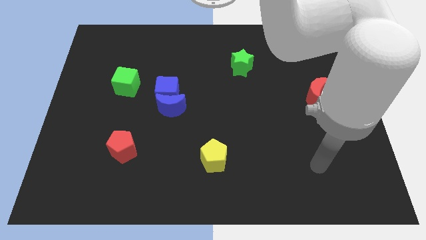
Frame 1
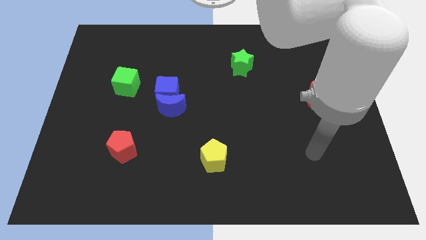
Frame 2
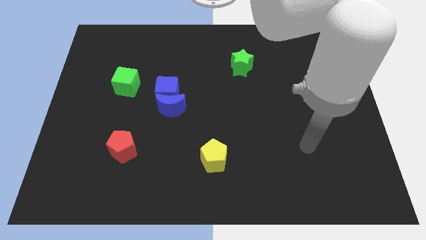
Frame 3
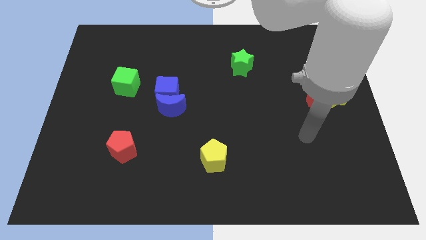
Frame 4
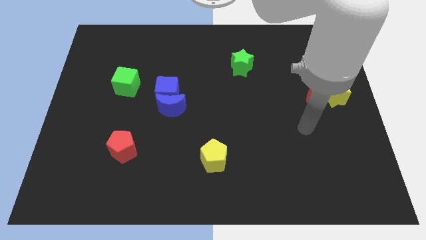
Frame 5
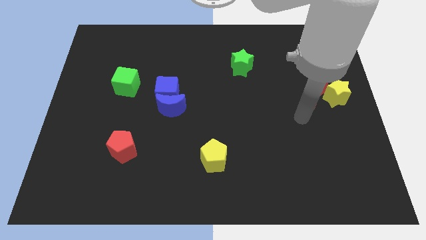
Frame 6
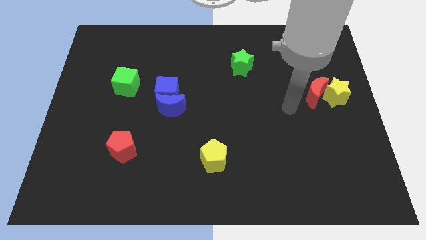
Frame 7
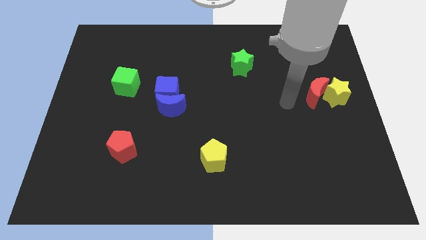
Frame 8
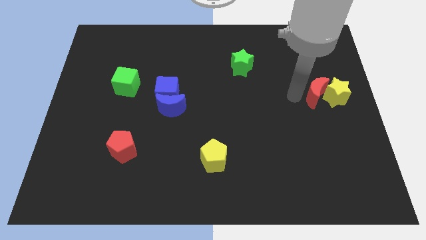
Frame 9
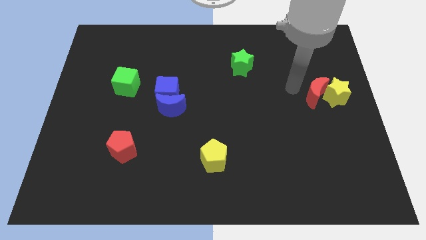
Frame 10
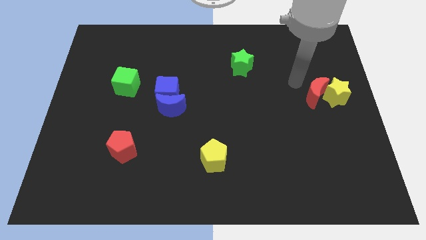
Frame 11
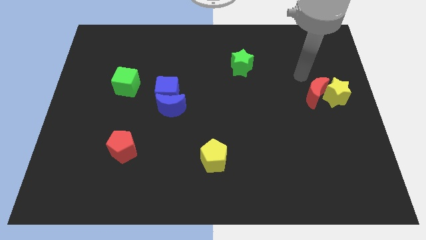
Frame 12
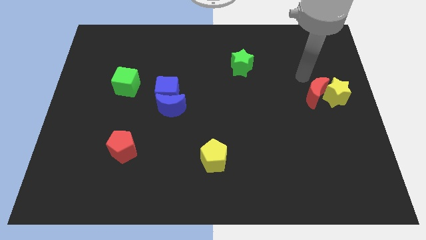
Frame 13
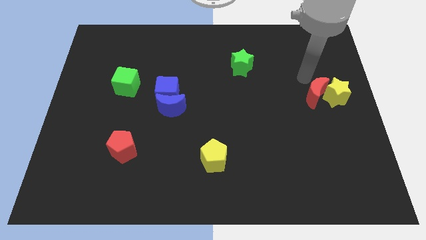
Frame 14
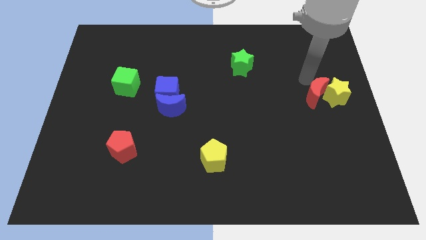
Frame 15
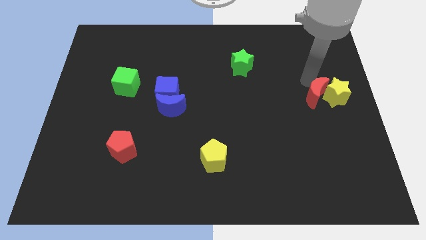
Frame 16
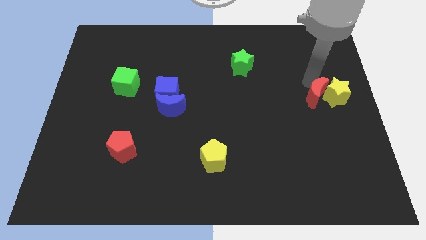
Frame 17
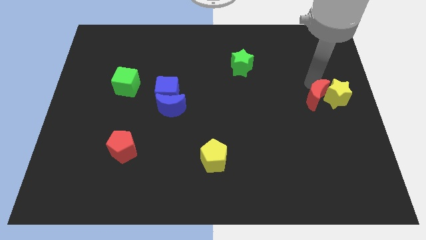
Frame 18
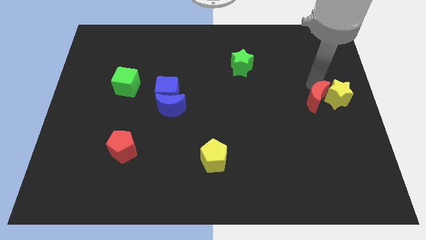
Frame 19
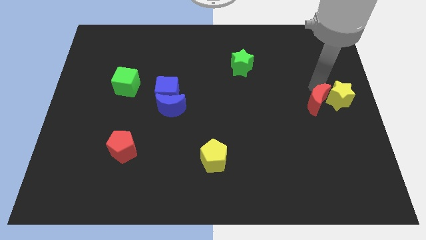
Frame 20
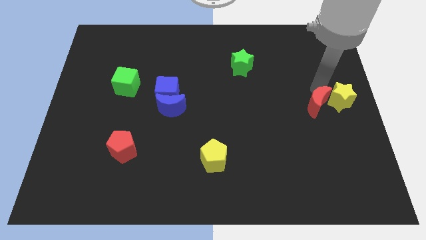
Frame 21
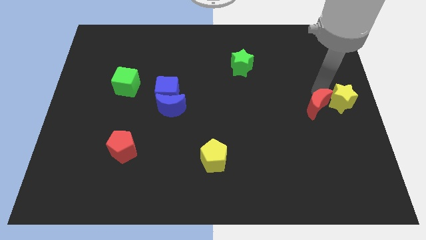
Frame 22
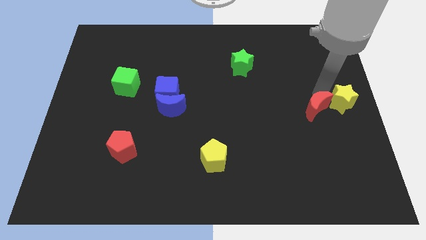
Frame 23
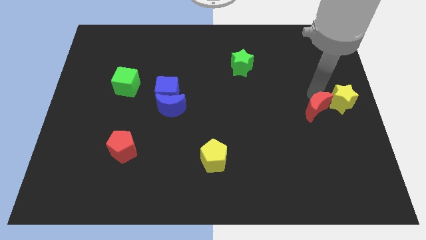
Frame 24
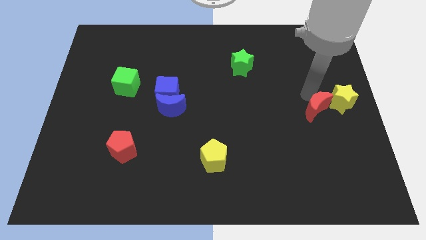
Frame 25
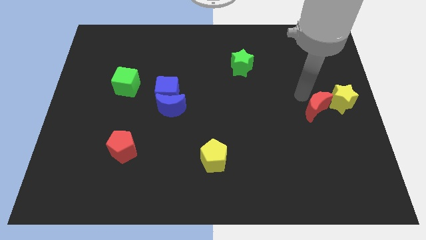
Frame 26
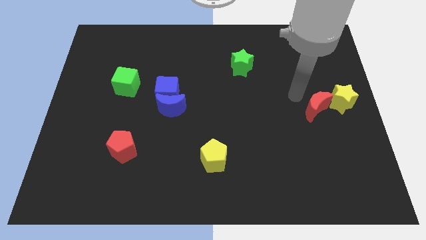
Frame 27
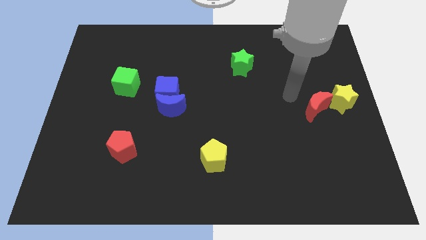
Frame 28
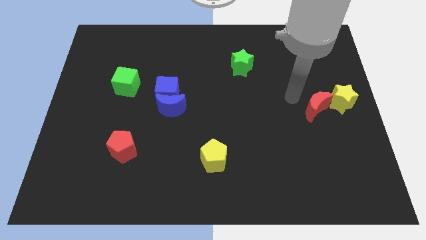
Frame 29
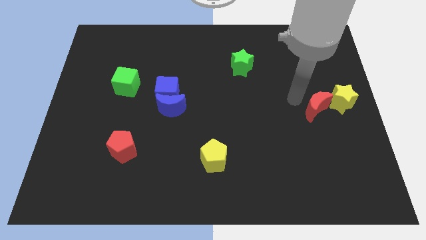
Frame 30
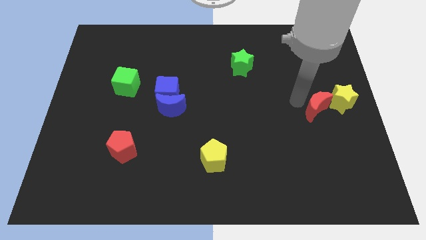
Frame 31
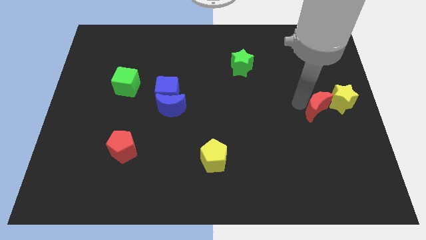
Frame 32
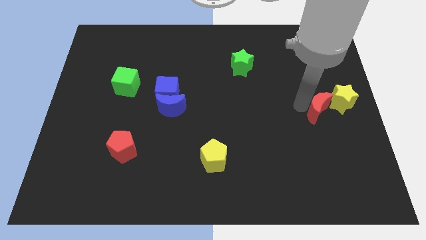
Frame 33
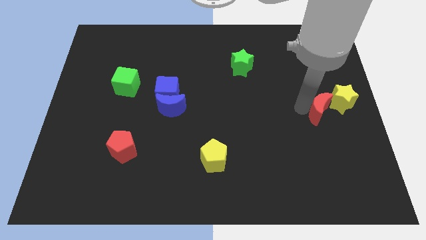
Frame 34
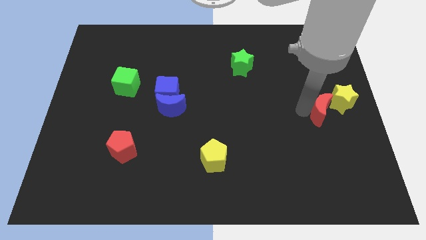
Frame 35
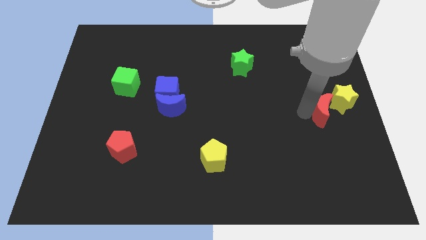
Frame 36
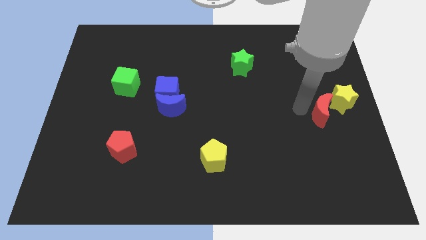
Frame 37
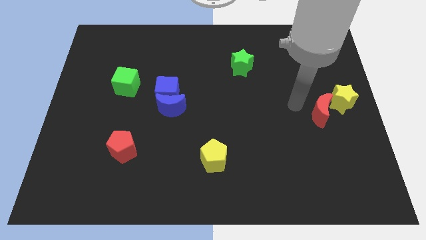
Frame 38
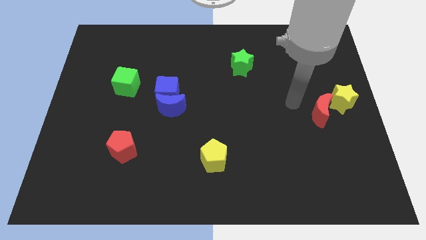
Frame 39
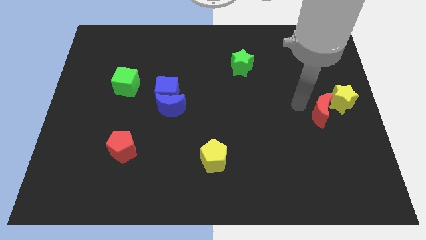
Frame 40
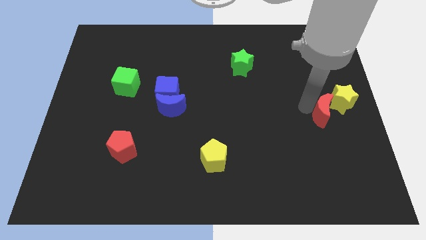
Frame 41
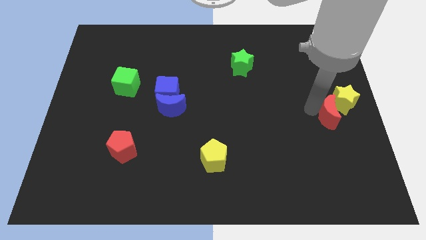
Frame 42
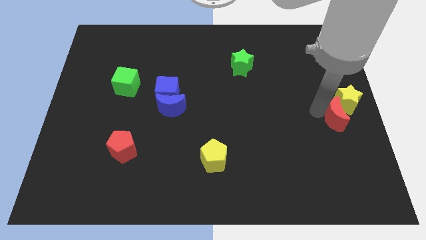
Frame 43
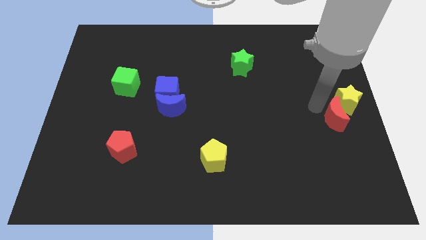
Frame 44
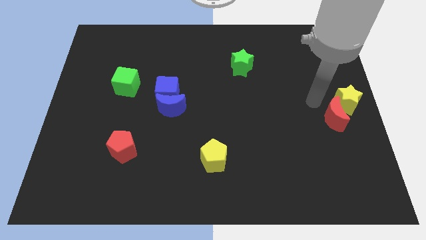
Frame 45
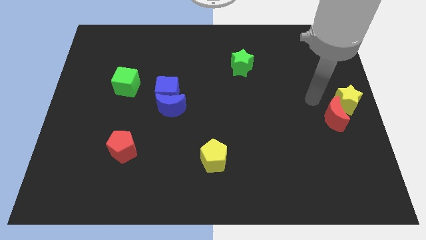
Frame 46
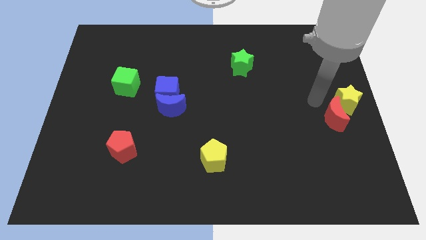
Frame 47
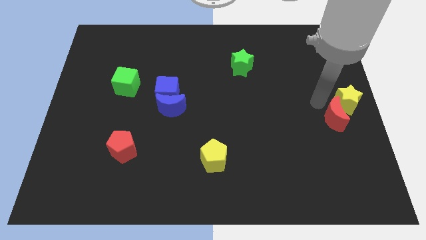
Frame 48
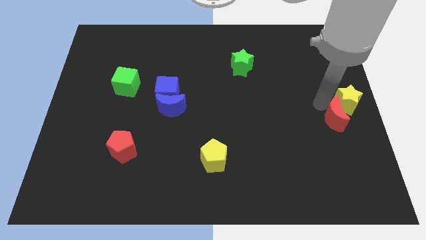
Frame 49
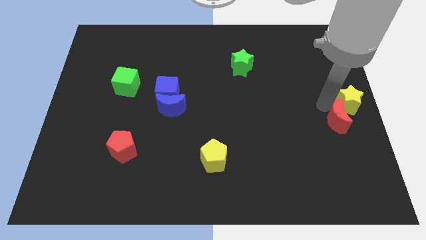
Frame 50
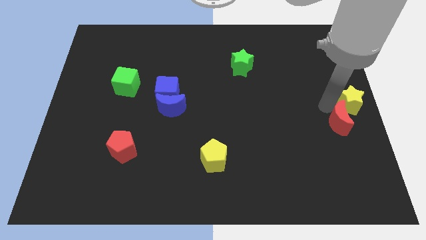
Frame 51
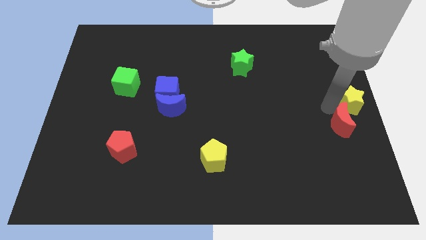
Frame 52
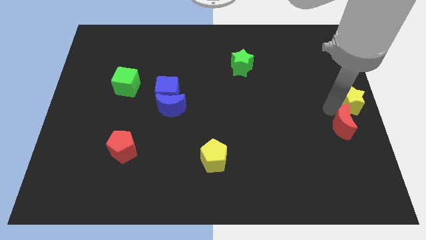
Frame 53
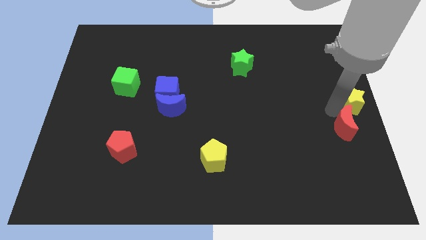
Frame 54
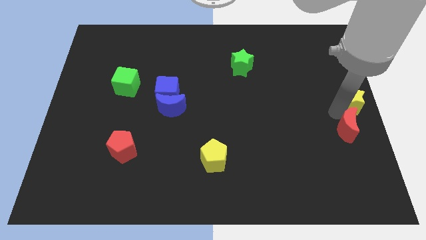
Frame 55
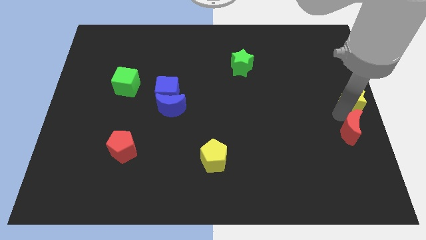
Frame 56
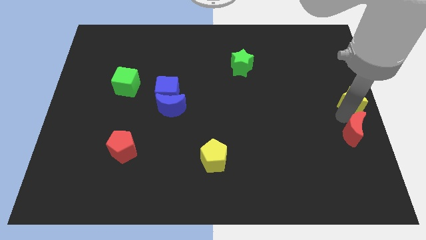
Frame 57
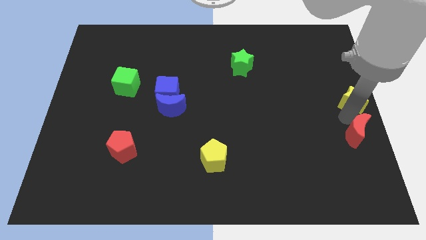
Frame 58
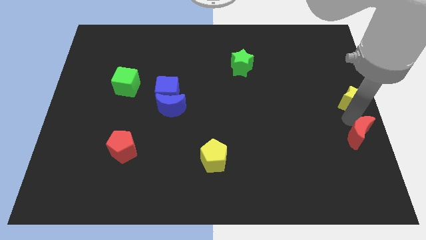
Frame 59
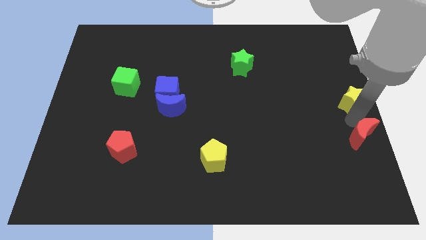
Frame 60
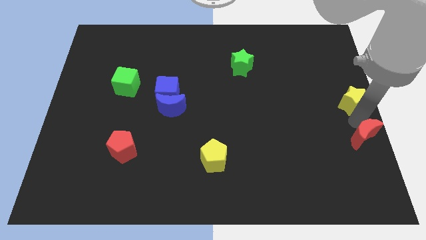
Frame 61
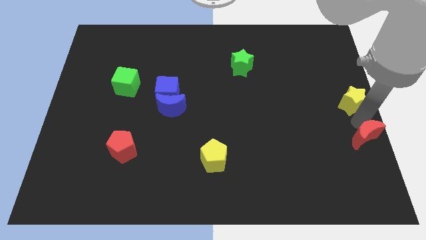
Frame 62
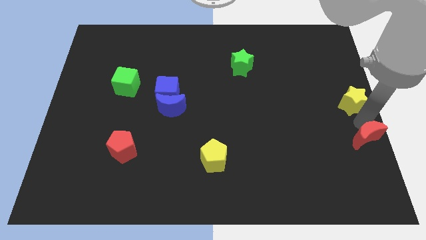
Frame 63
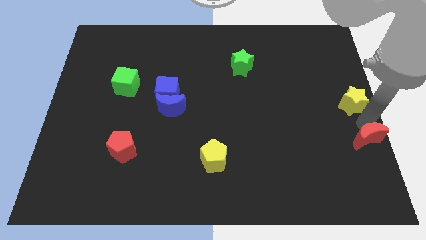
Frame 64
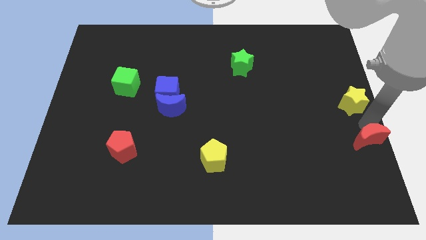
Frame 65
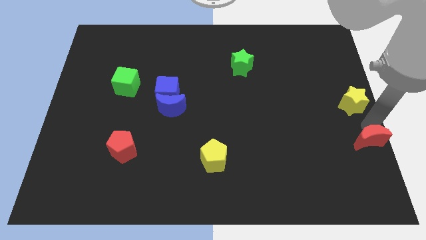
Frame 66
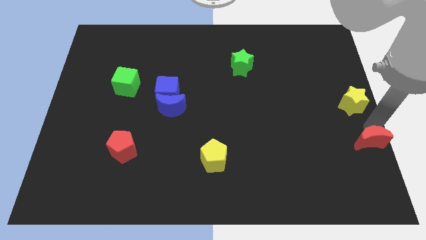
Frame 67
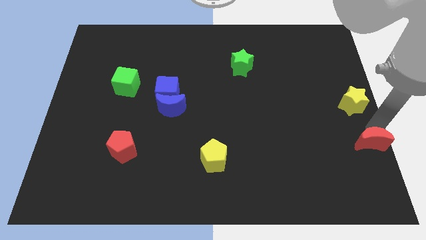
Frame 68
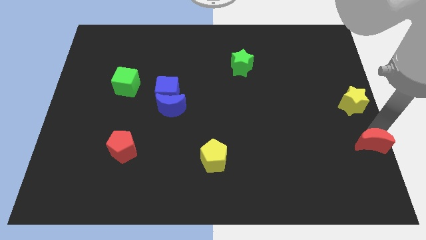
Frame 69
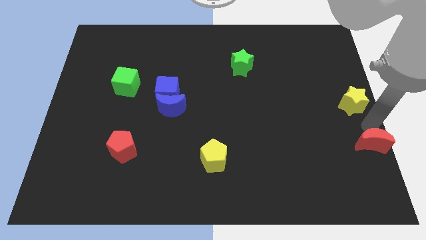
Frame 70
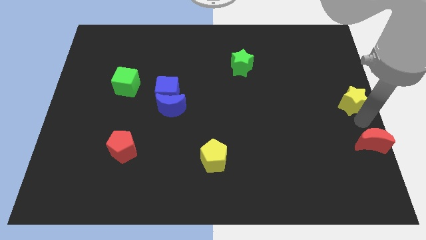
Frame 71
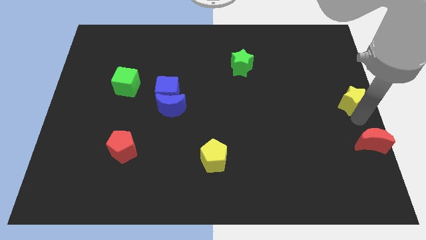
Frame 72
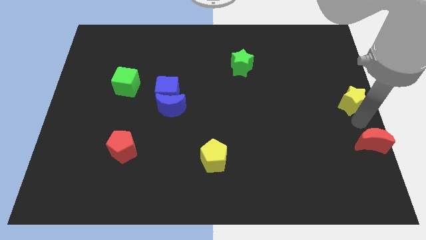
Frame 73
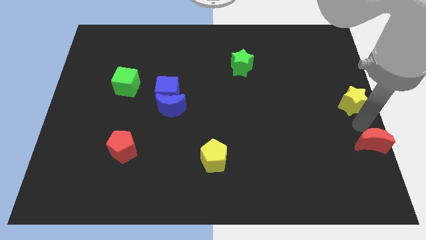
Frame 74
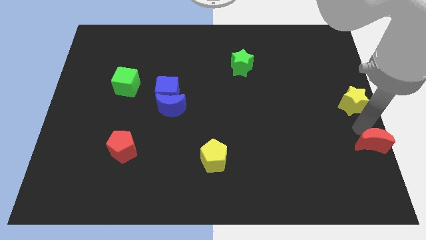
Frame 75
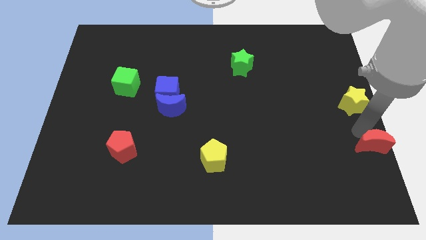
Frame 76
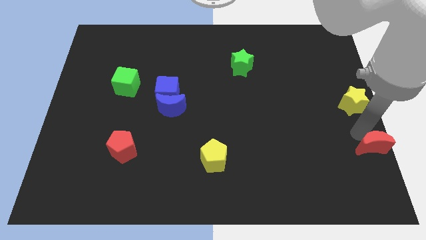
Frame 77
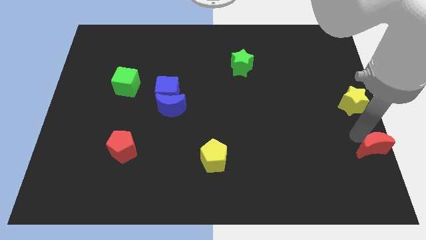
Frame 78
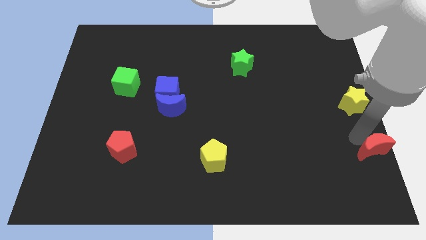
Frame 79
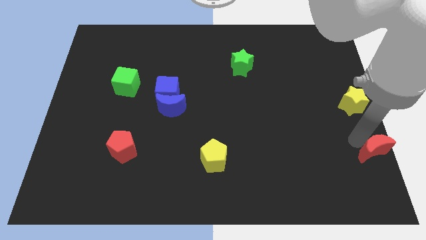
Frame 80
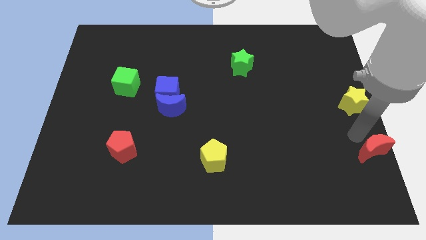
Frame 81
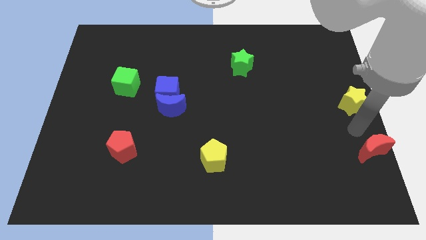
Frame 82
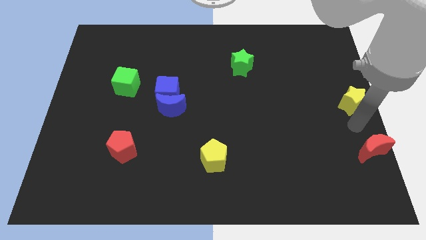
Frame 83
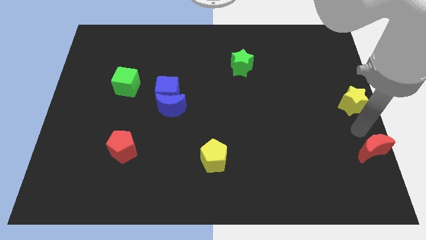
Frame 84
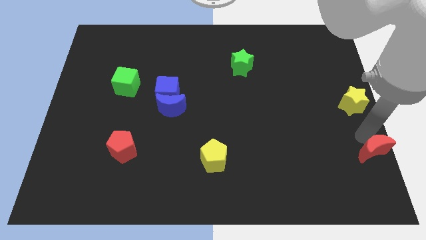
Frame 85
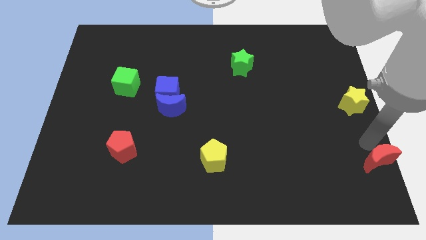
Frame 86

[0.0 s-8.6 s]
push the red moon to the bottom right corner
